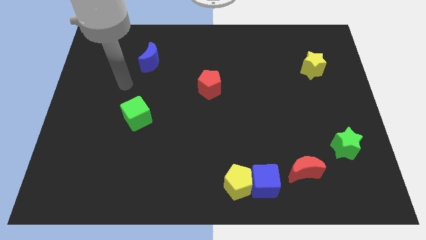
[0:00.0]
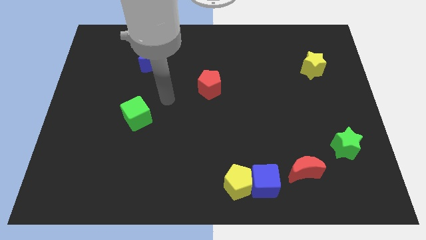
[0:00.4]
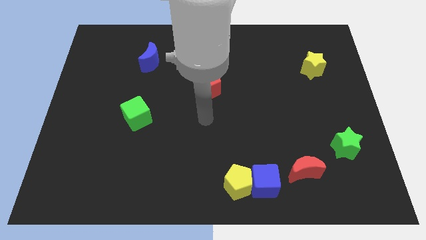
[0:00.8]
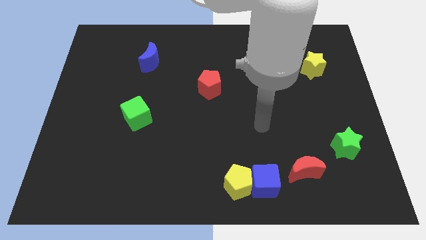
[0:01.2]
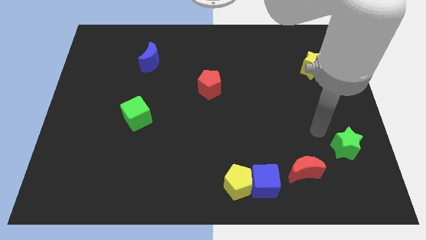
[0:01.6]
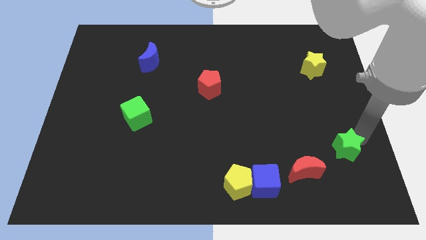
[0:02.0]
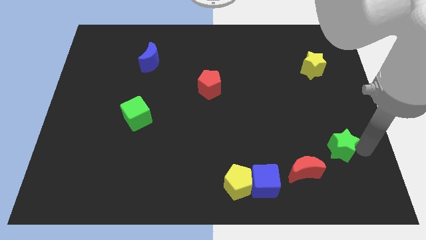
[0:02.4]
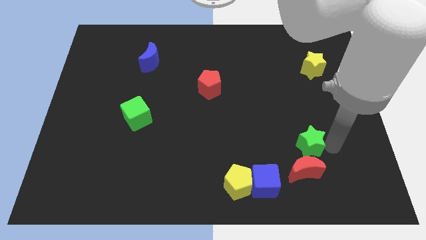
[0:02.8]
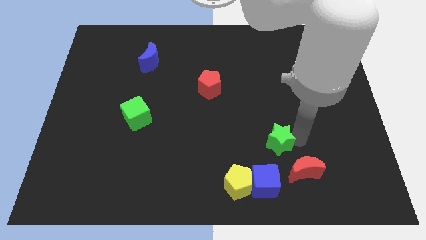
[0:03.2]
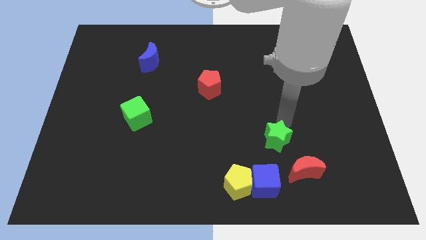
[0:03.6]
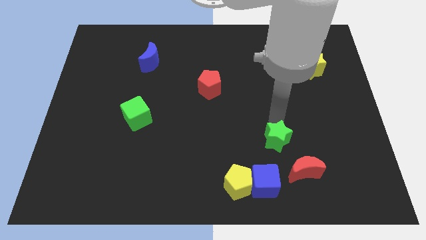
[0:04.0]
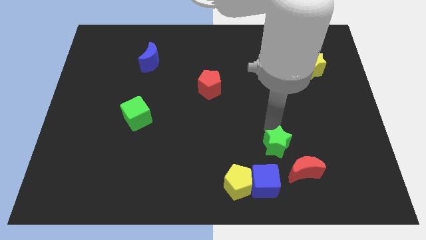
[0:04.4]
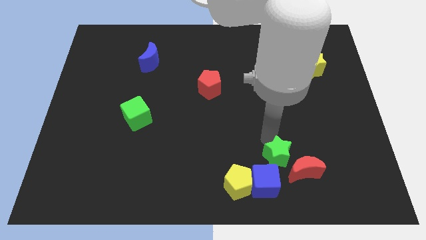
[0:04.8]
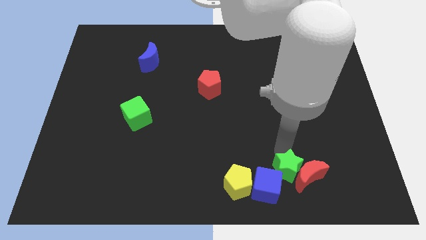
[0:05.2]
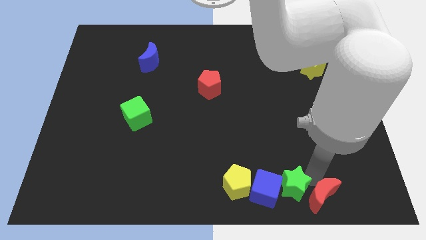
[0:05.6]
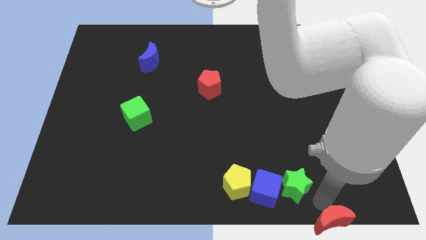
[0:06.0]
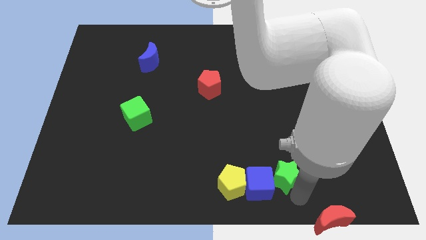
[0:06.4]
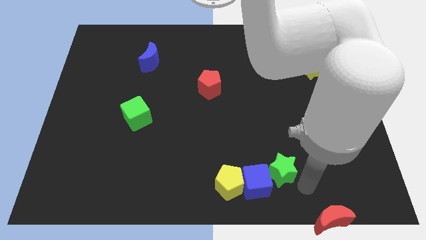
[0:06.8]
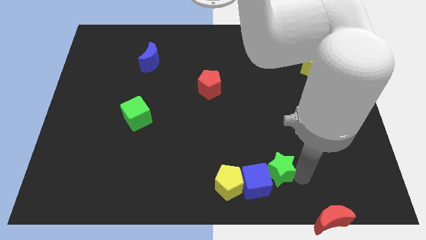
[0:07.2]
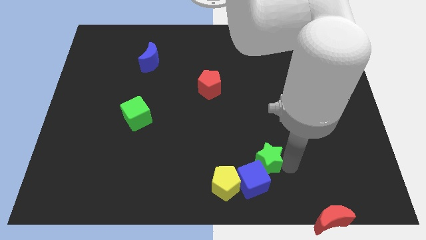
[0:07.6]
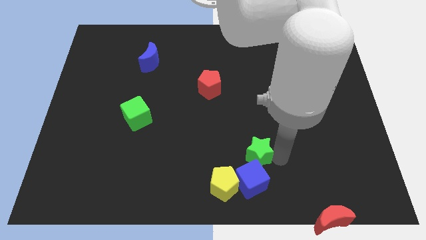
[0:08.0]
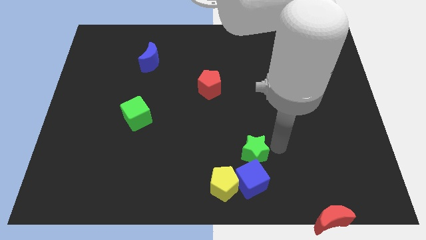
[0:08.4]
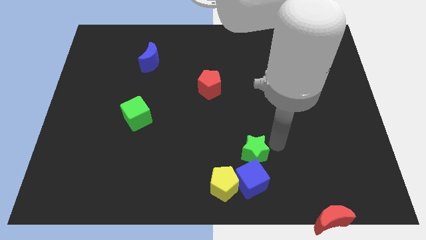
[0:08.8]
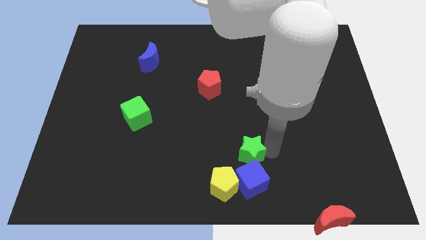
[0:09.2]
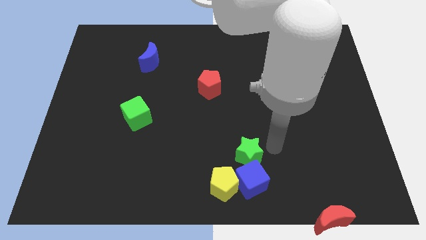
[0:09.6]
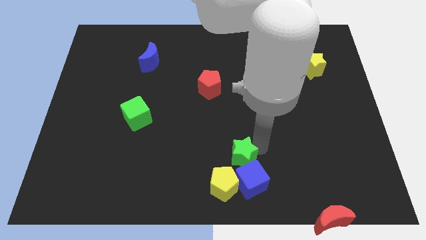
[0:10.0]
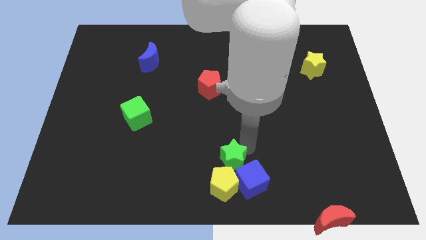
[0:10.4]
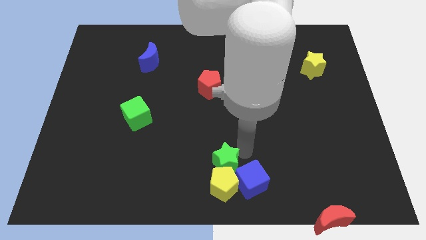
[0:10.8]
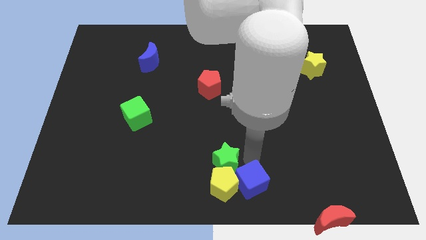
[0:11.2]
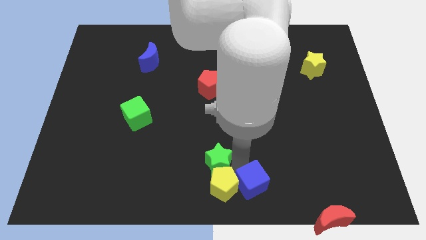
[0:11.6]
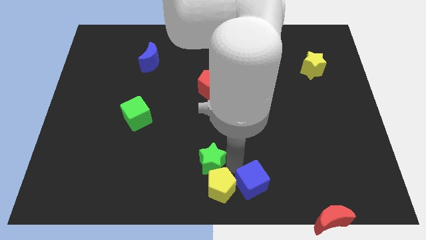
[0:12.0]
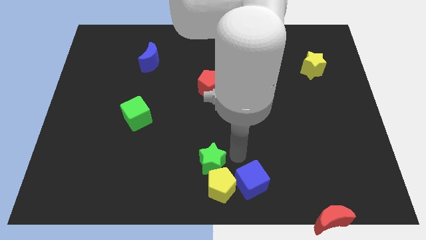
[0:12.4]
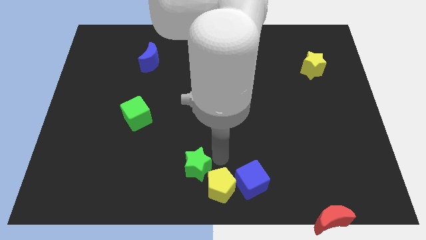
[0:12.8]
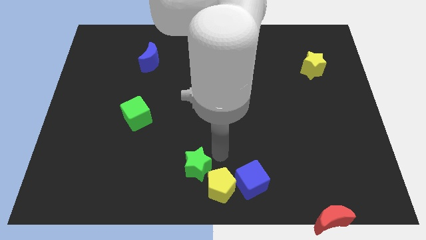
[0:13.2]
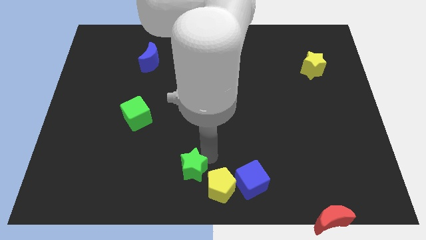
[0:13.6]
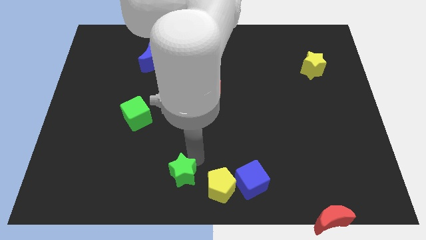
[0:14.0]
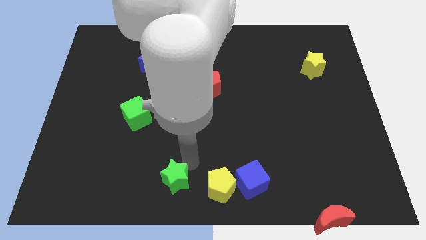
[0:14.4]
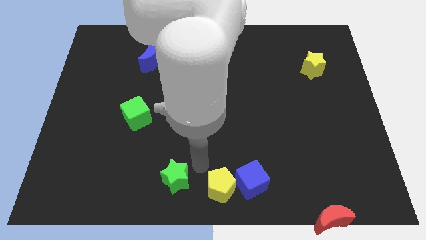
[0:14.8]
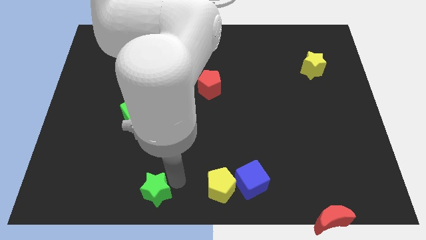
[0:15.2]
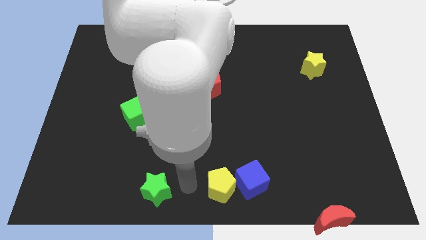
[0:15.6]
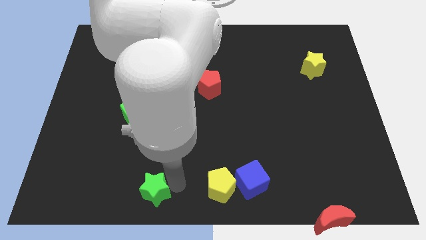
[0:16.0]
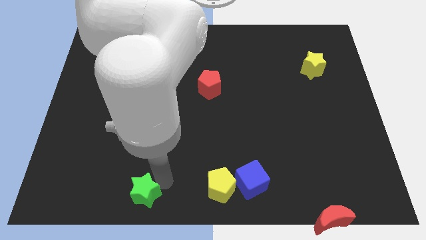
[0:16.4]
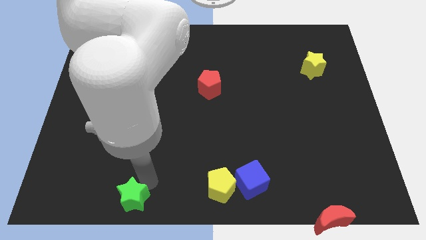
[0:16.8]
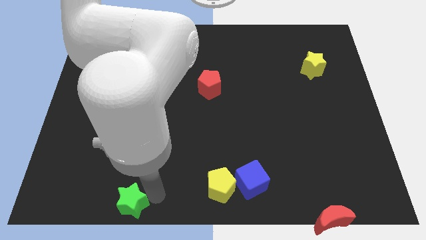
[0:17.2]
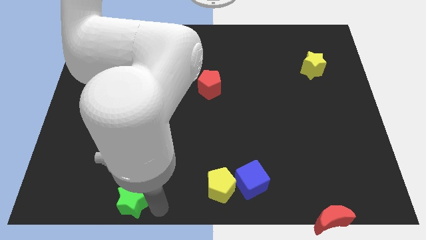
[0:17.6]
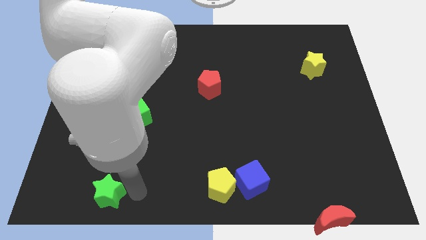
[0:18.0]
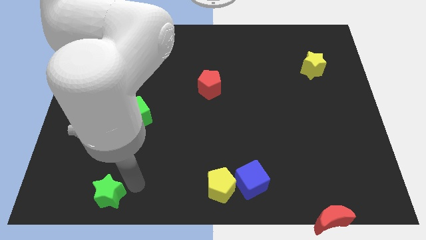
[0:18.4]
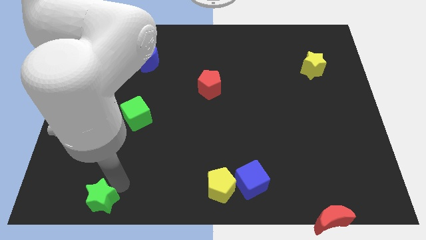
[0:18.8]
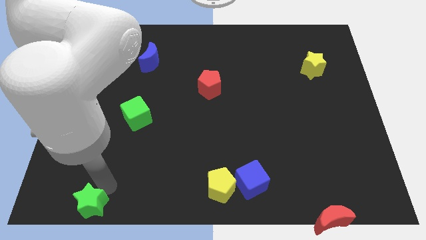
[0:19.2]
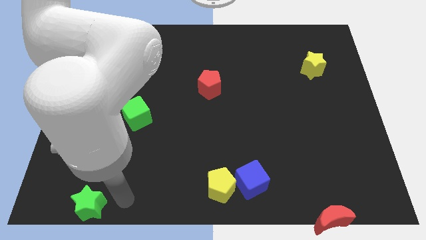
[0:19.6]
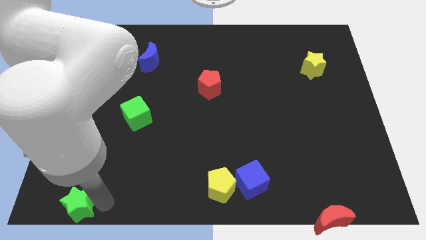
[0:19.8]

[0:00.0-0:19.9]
push the green star to the bottom left

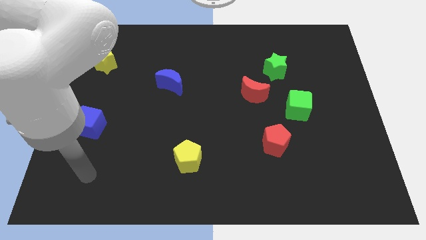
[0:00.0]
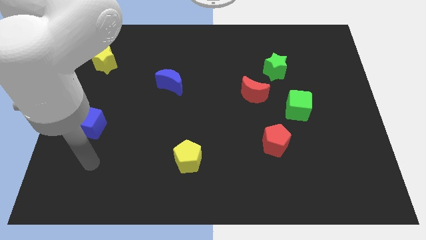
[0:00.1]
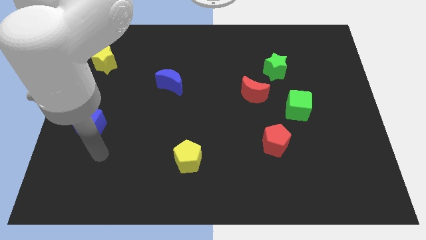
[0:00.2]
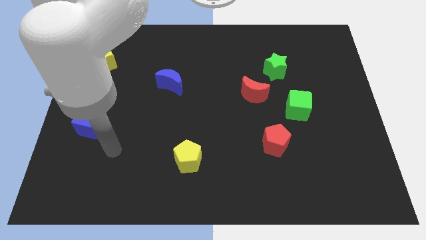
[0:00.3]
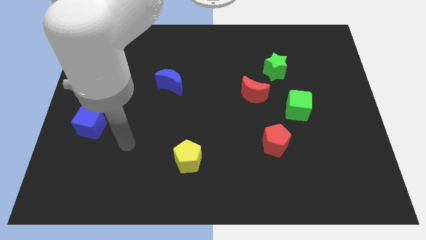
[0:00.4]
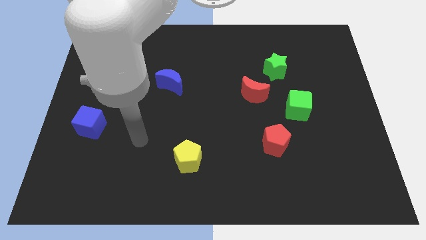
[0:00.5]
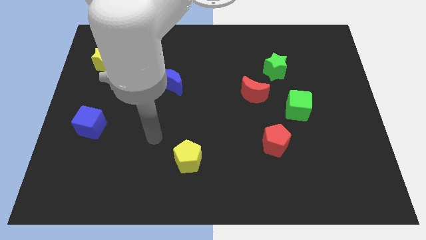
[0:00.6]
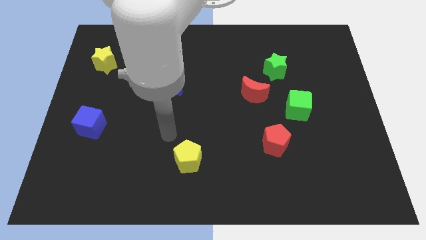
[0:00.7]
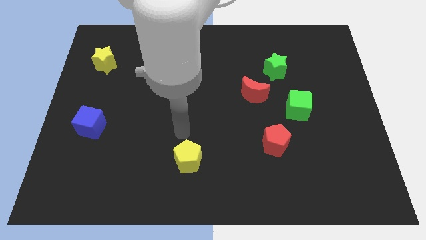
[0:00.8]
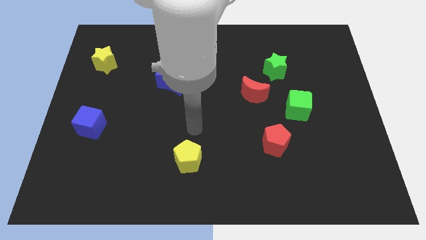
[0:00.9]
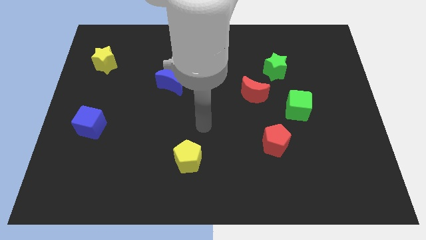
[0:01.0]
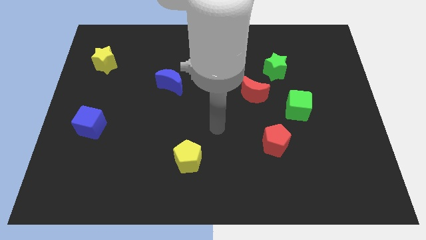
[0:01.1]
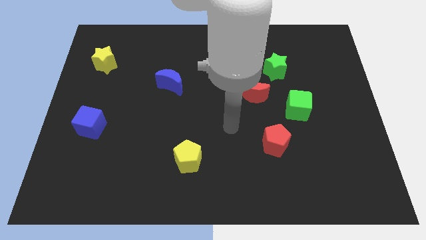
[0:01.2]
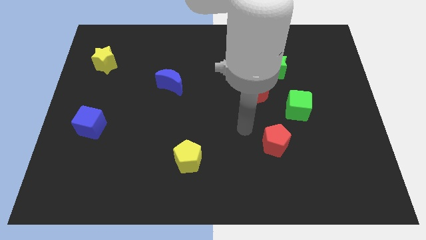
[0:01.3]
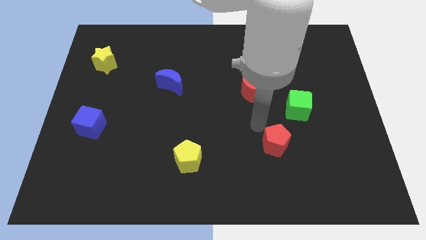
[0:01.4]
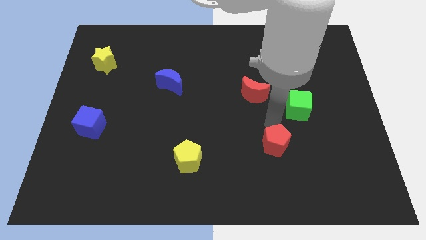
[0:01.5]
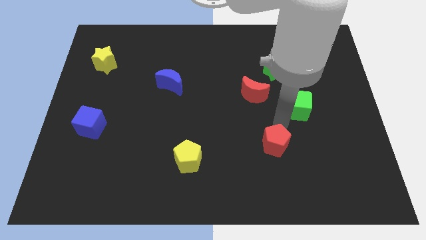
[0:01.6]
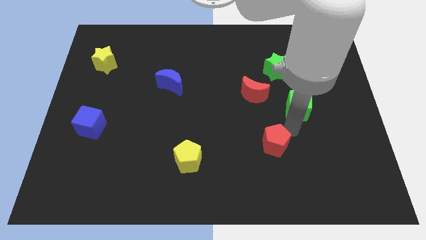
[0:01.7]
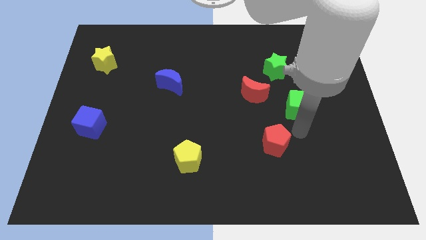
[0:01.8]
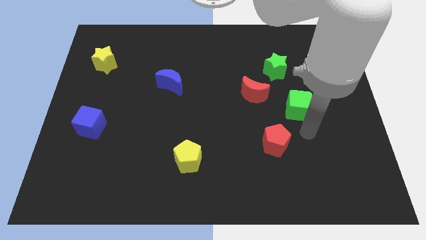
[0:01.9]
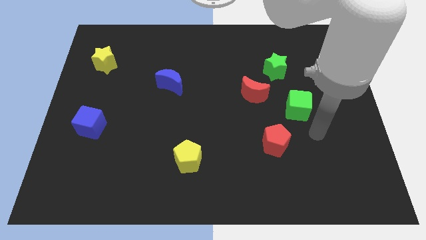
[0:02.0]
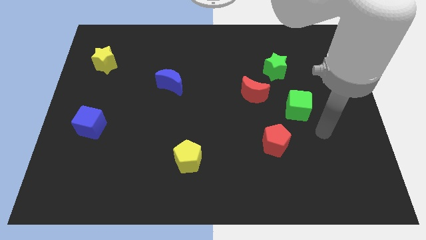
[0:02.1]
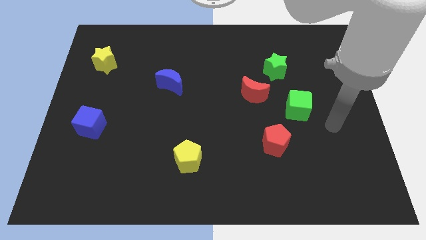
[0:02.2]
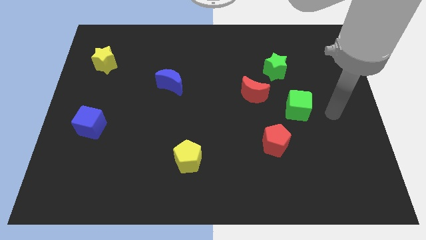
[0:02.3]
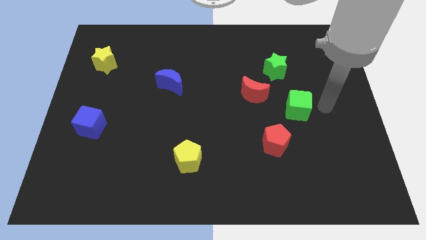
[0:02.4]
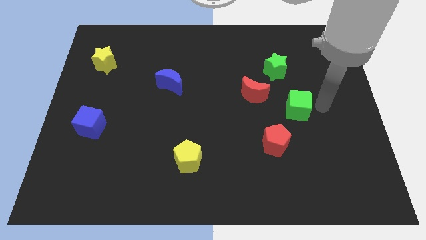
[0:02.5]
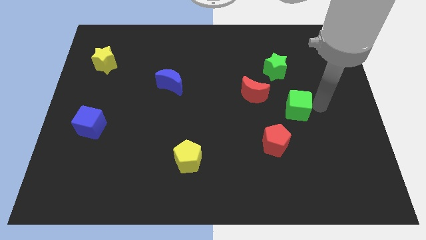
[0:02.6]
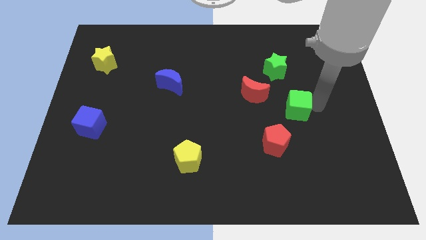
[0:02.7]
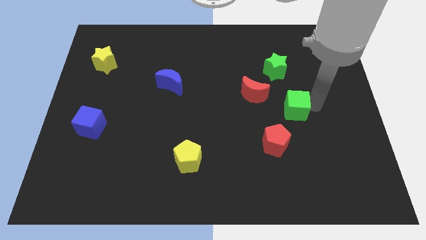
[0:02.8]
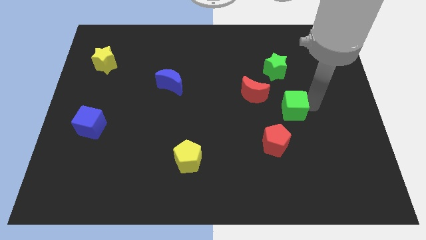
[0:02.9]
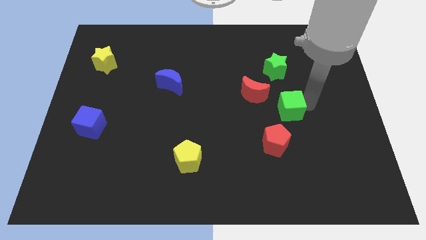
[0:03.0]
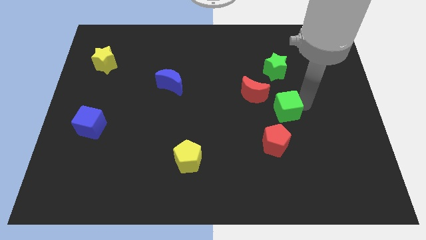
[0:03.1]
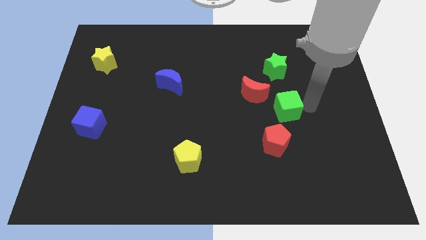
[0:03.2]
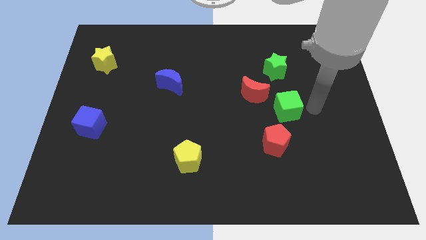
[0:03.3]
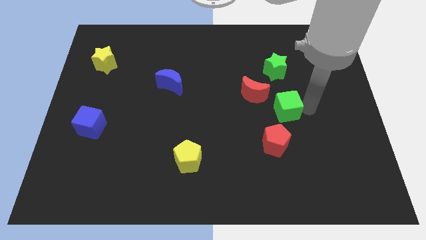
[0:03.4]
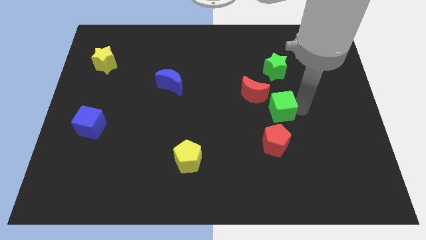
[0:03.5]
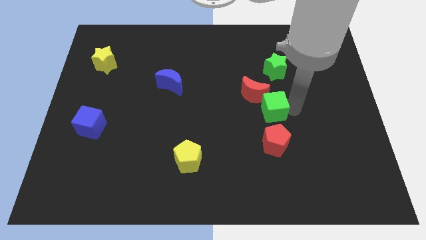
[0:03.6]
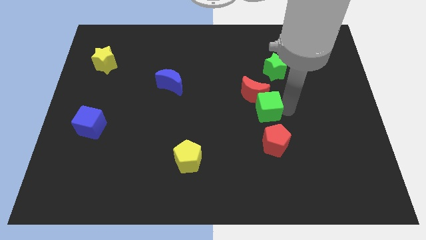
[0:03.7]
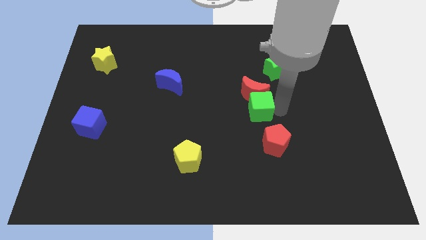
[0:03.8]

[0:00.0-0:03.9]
put the green cube to the middle
